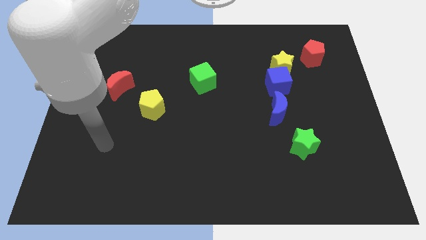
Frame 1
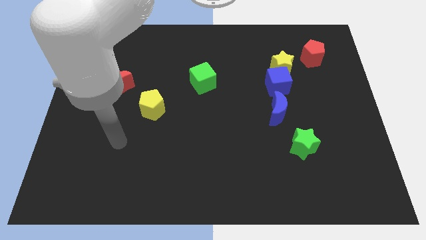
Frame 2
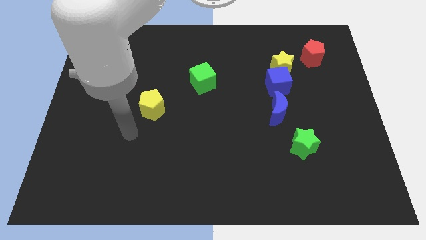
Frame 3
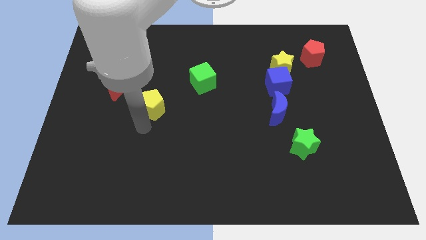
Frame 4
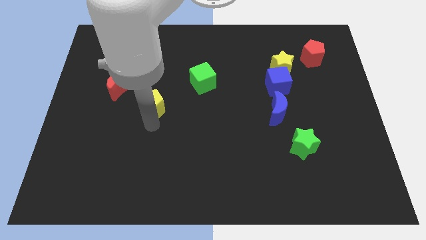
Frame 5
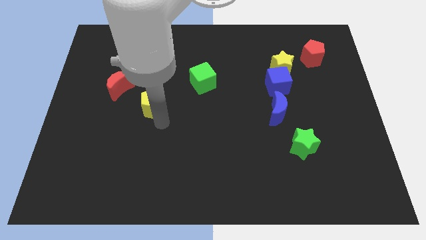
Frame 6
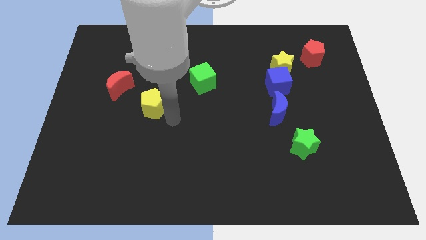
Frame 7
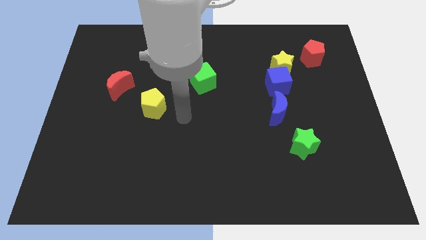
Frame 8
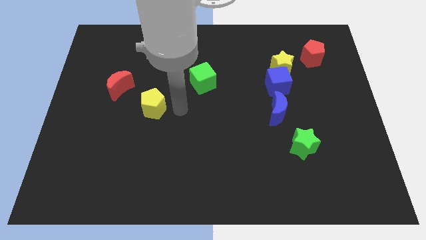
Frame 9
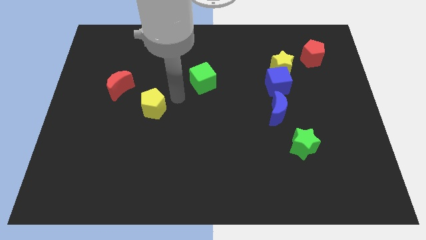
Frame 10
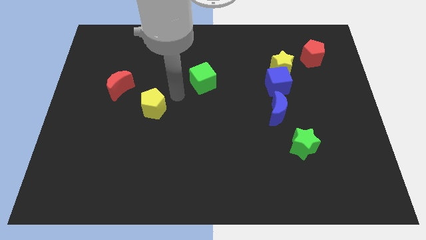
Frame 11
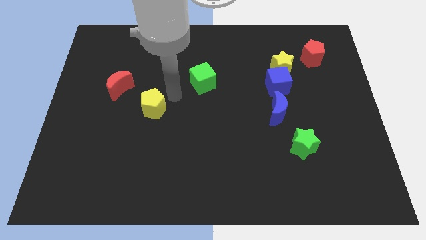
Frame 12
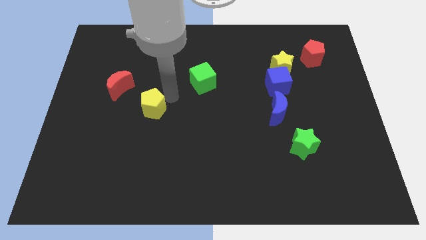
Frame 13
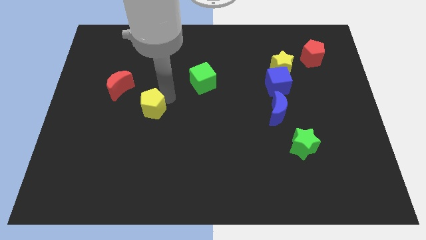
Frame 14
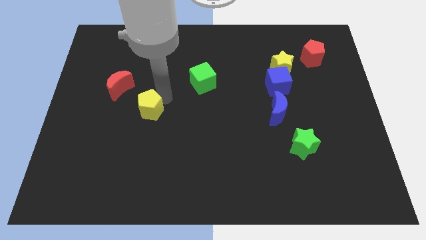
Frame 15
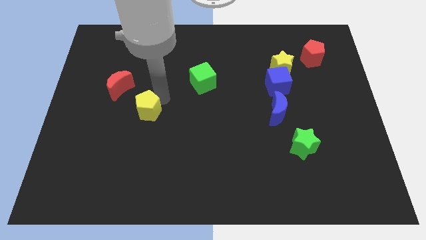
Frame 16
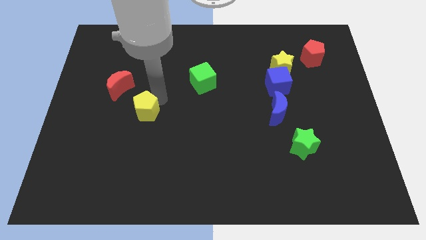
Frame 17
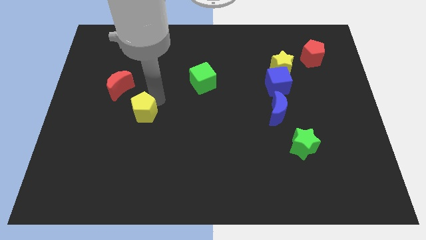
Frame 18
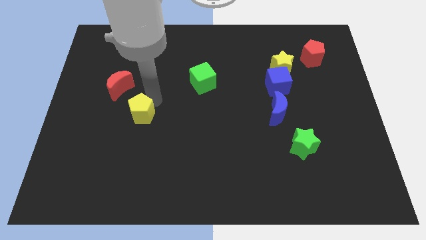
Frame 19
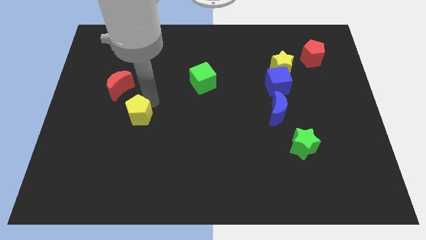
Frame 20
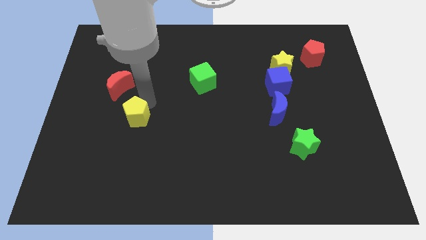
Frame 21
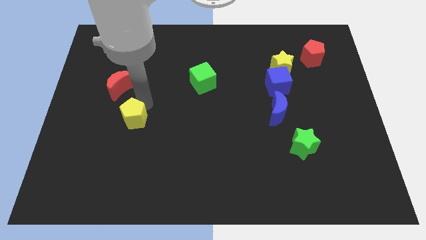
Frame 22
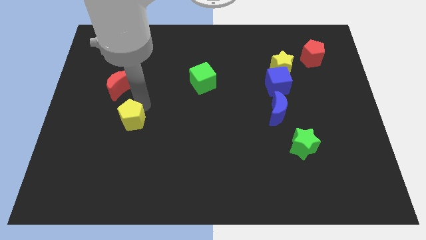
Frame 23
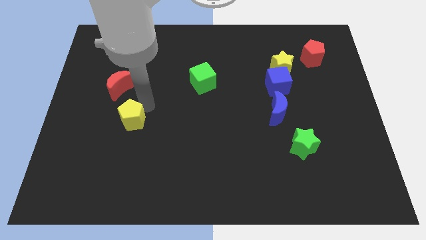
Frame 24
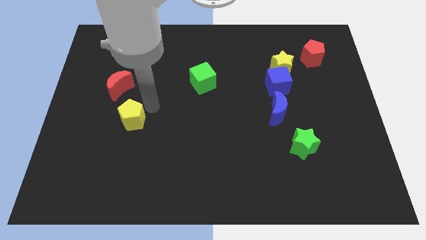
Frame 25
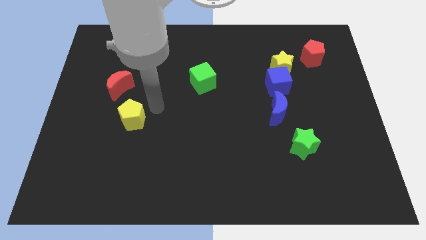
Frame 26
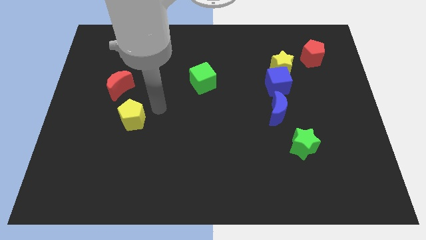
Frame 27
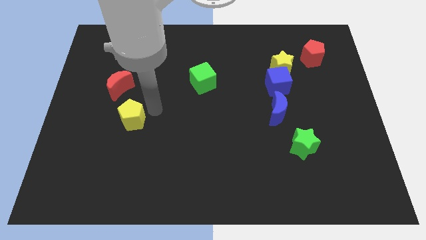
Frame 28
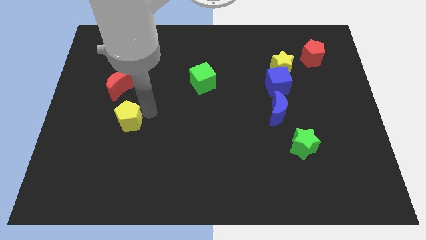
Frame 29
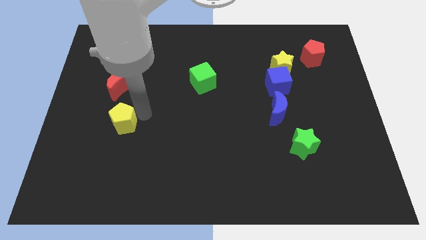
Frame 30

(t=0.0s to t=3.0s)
slide the yellow pentagon slightly down and then left

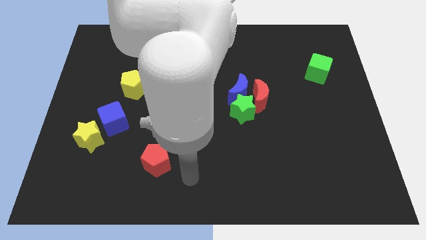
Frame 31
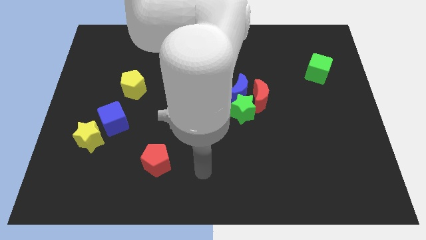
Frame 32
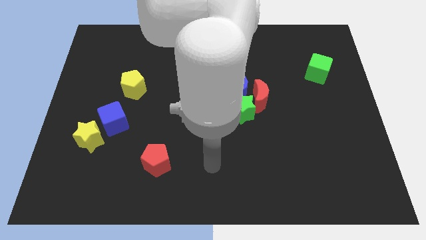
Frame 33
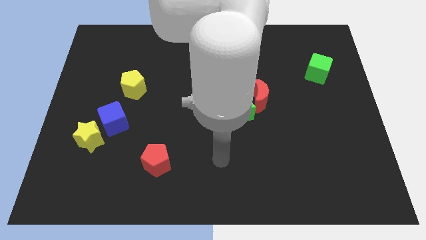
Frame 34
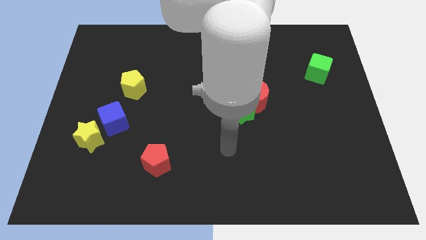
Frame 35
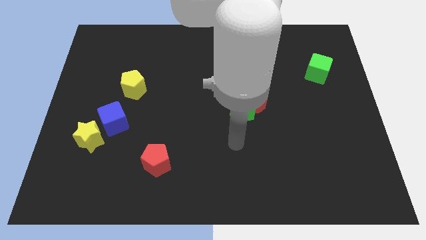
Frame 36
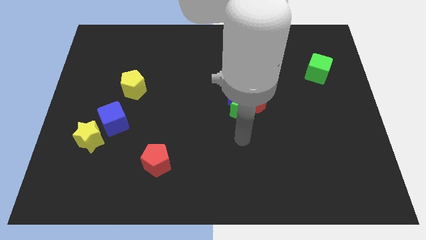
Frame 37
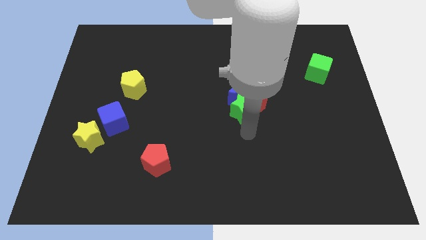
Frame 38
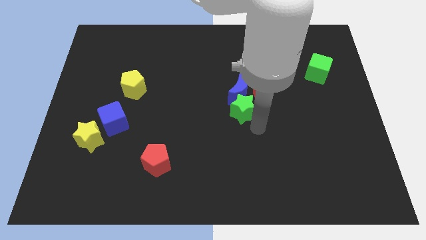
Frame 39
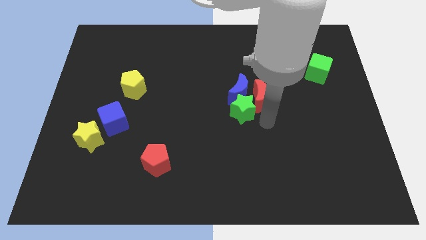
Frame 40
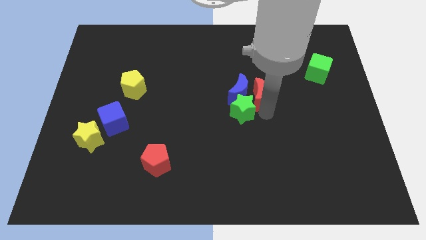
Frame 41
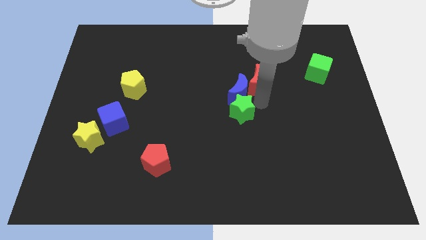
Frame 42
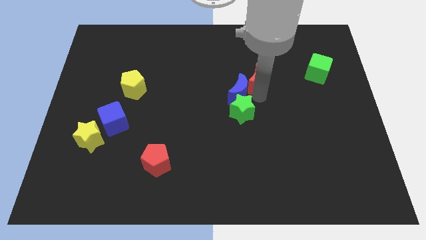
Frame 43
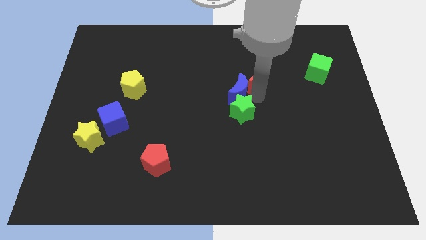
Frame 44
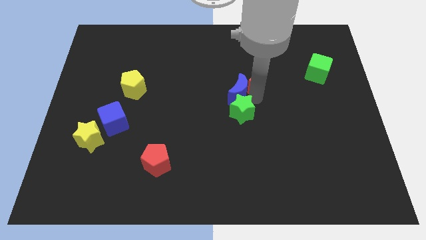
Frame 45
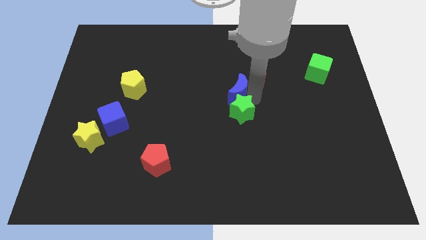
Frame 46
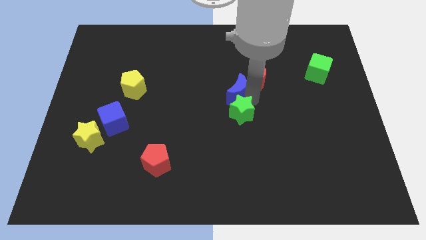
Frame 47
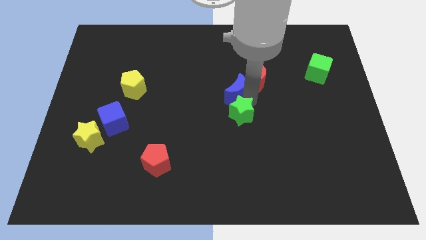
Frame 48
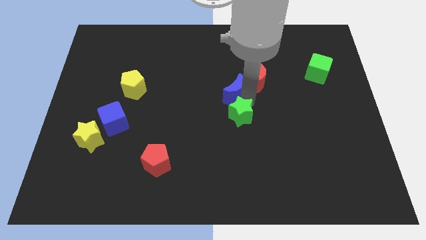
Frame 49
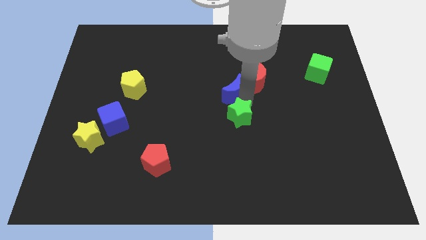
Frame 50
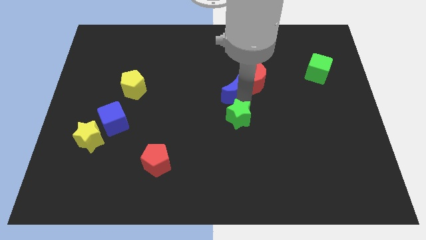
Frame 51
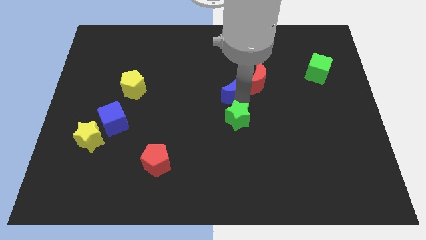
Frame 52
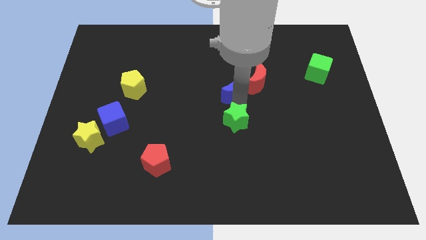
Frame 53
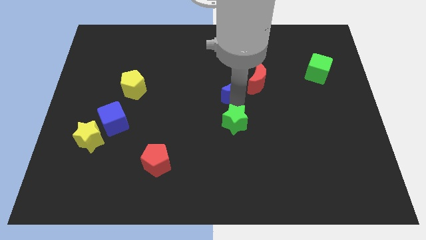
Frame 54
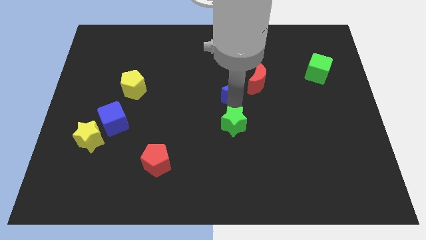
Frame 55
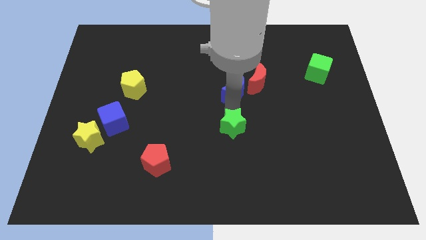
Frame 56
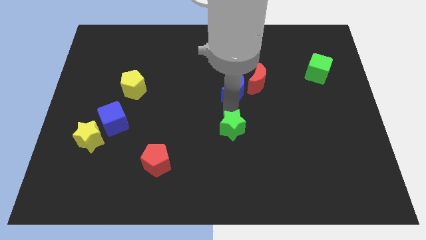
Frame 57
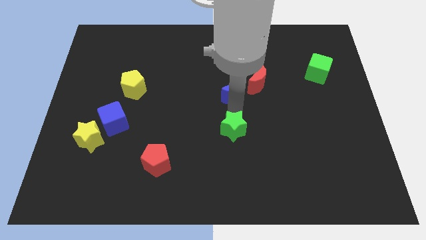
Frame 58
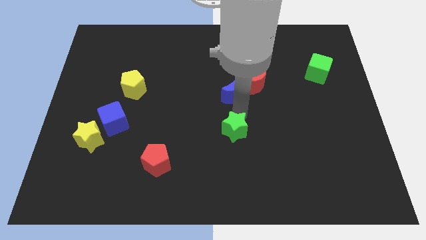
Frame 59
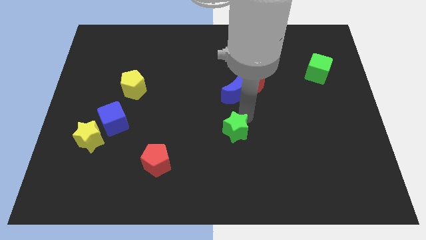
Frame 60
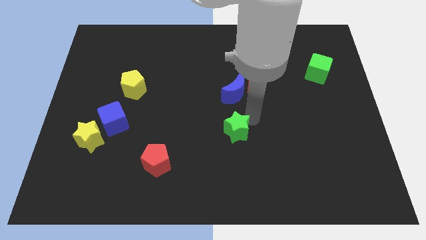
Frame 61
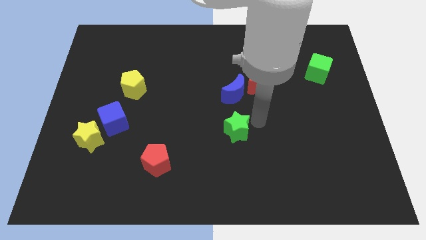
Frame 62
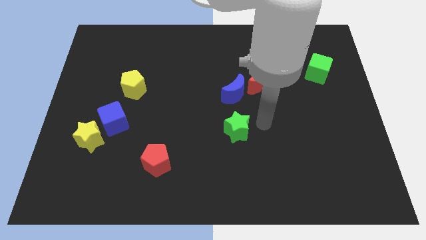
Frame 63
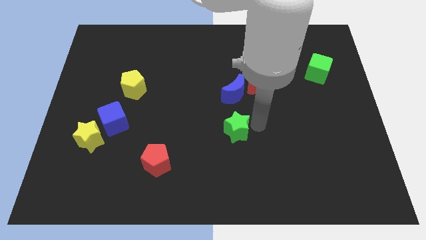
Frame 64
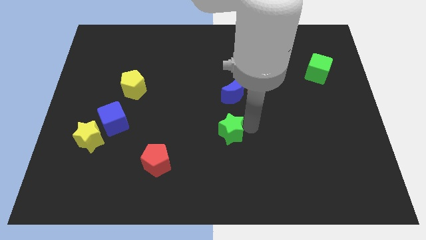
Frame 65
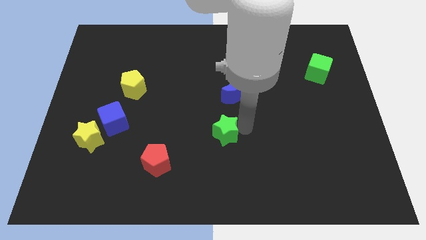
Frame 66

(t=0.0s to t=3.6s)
push the green star down and then left a bit

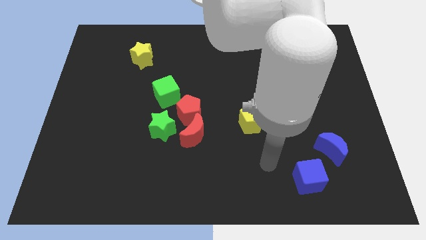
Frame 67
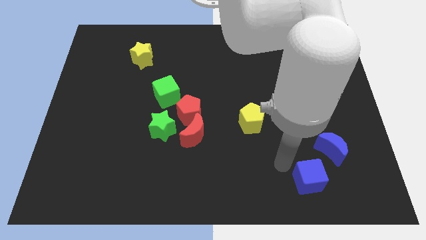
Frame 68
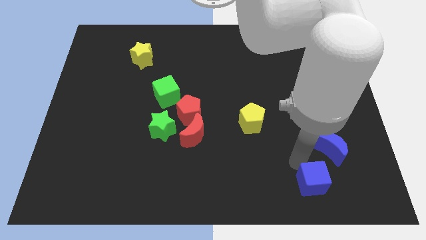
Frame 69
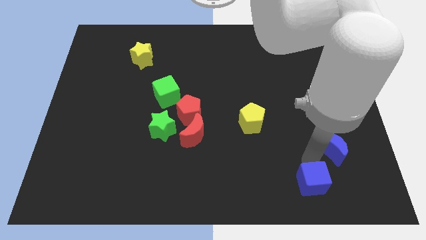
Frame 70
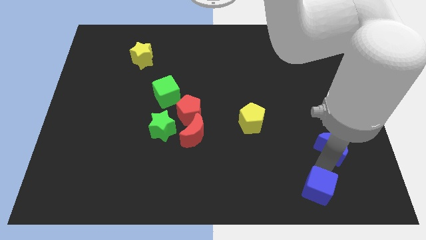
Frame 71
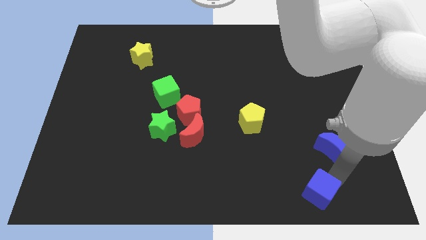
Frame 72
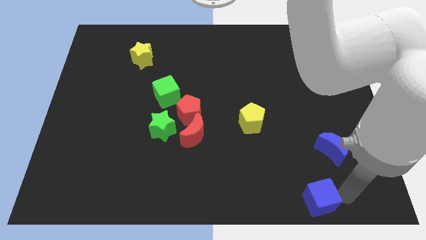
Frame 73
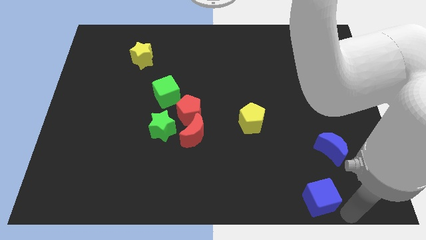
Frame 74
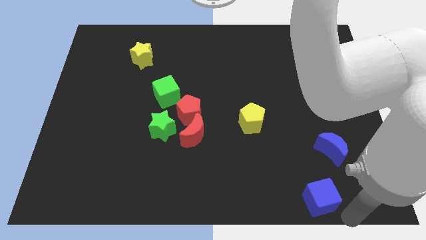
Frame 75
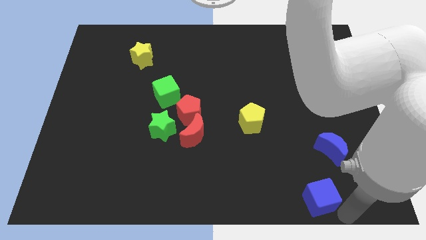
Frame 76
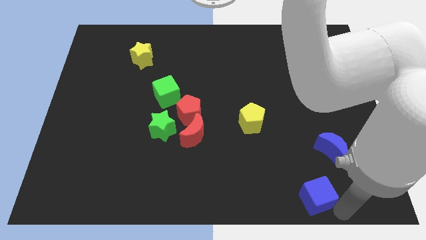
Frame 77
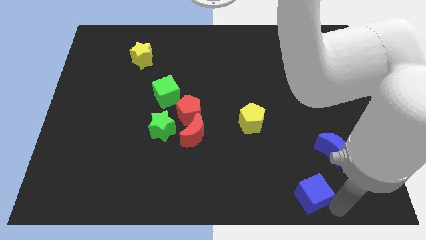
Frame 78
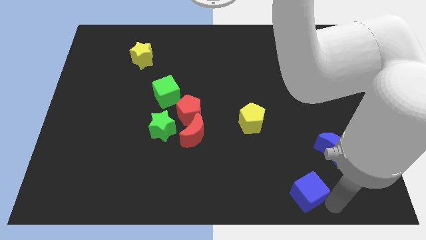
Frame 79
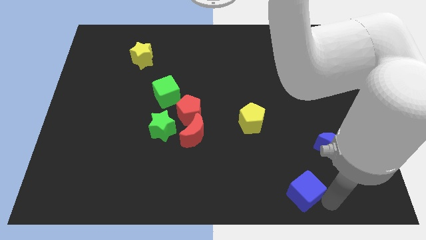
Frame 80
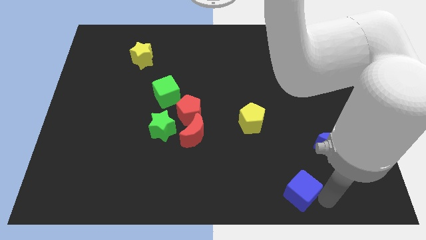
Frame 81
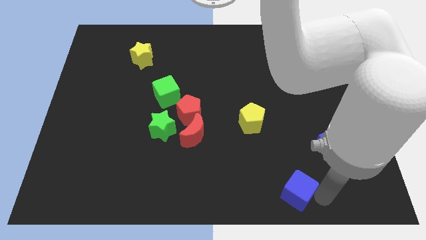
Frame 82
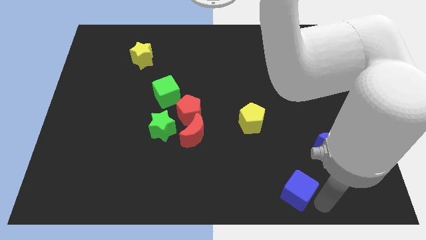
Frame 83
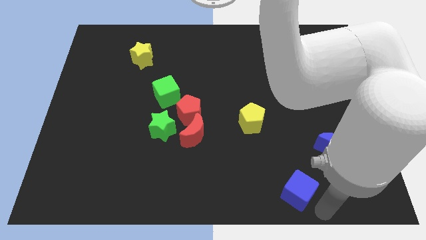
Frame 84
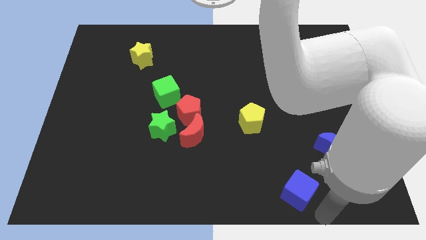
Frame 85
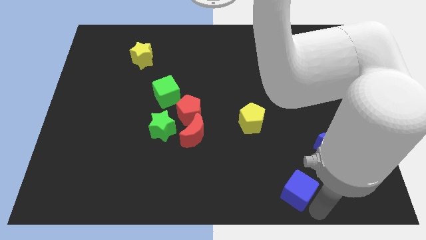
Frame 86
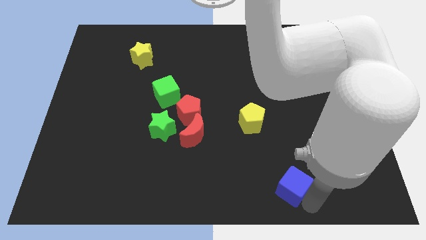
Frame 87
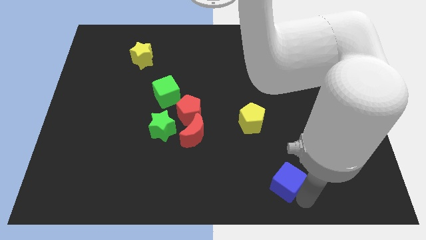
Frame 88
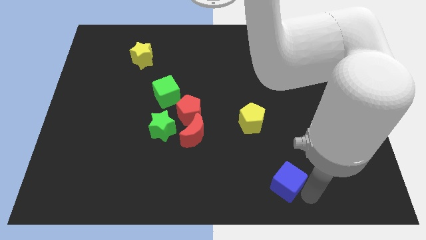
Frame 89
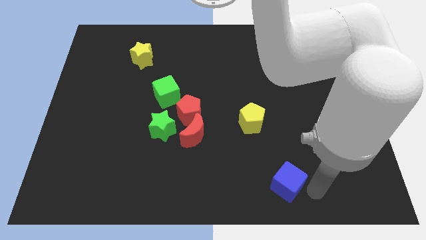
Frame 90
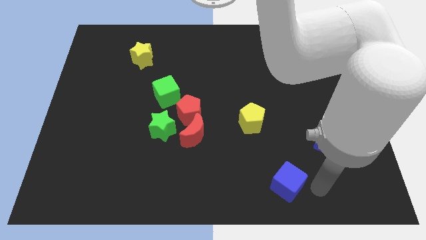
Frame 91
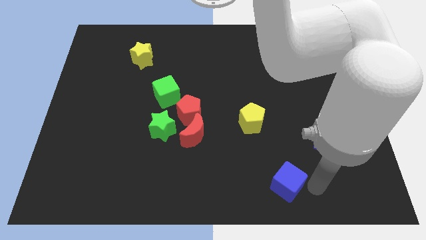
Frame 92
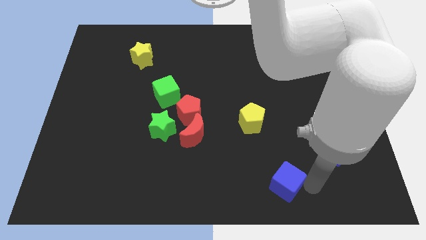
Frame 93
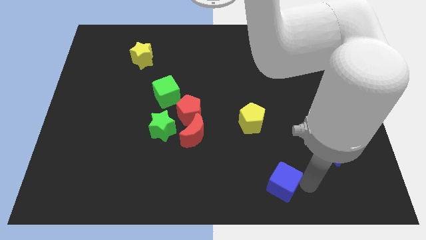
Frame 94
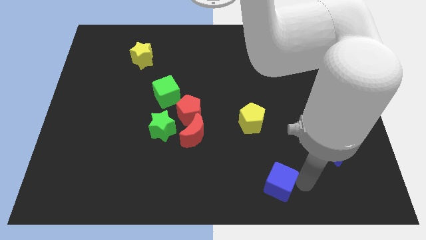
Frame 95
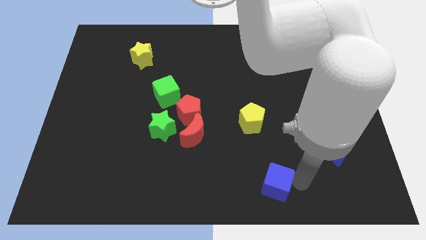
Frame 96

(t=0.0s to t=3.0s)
slightly push the blue cube to the left
